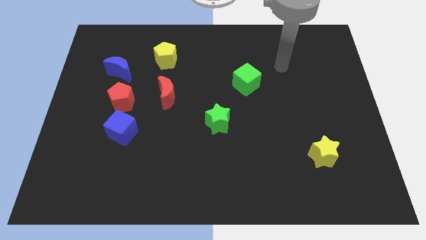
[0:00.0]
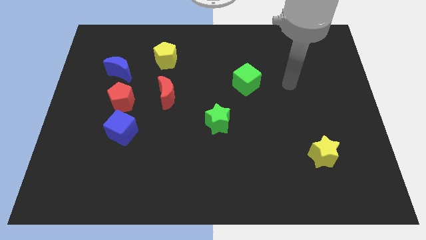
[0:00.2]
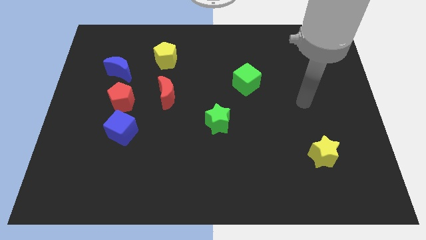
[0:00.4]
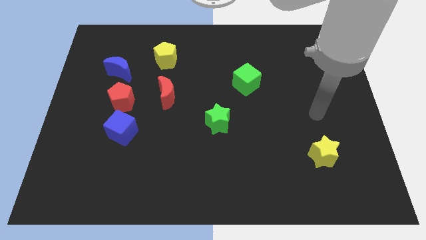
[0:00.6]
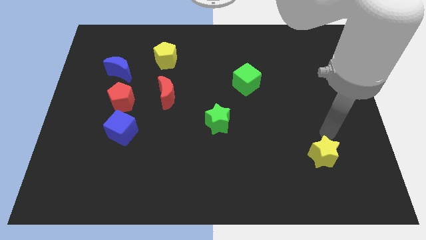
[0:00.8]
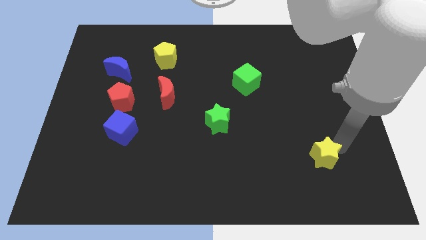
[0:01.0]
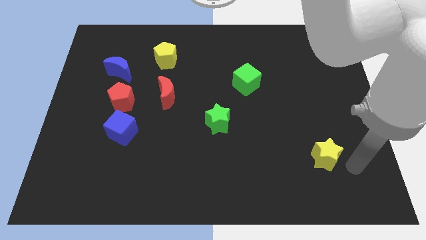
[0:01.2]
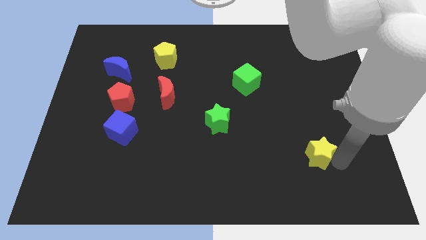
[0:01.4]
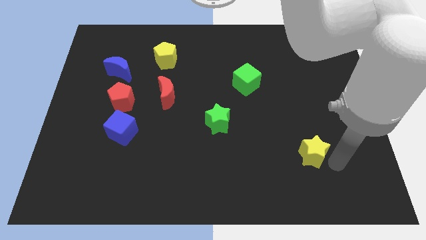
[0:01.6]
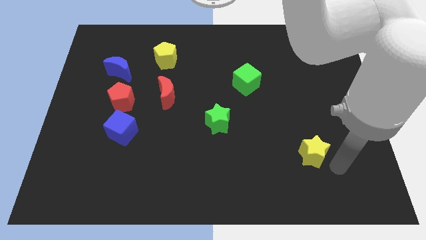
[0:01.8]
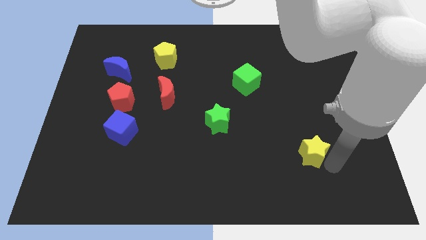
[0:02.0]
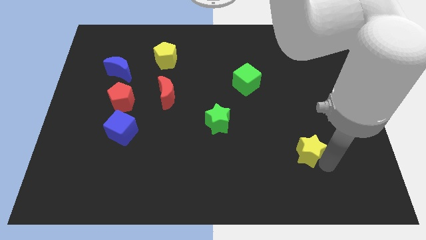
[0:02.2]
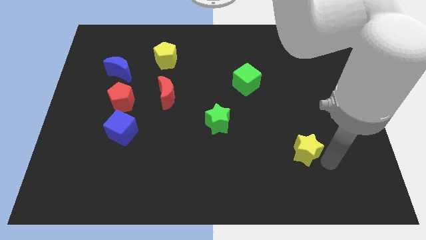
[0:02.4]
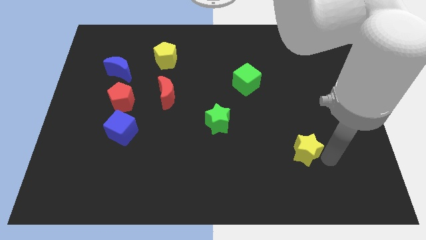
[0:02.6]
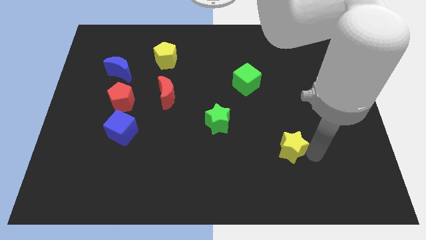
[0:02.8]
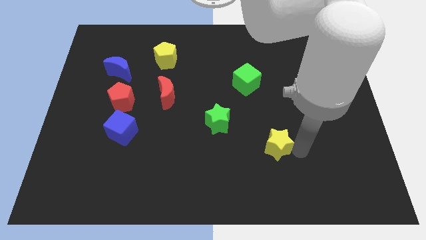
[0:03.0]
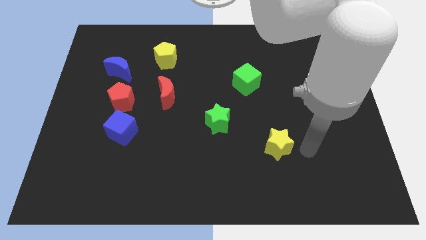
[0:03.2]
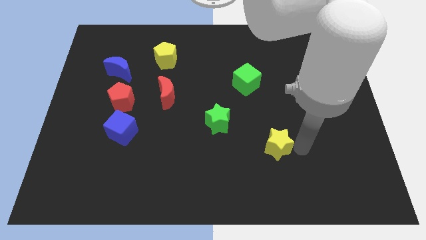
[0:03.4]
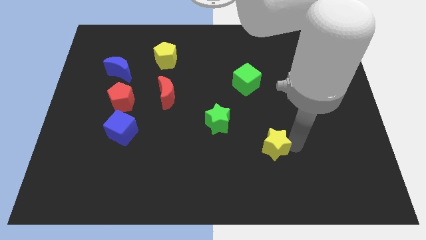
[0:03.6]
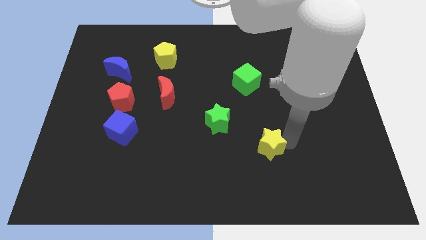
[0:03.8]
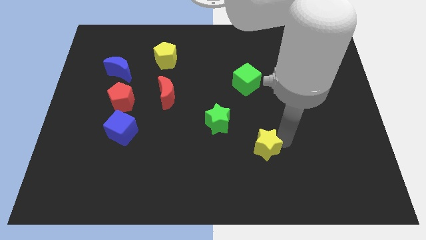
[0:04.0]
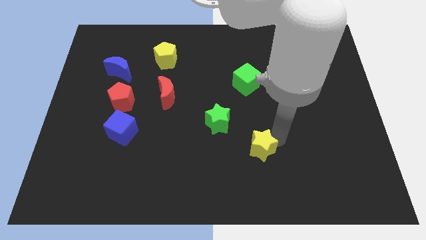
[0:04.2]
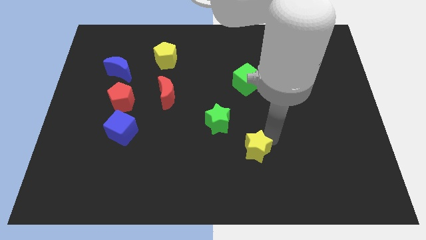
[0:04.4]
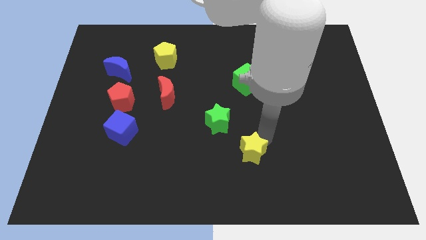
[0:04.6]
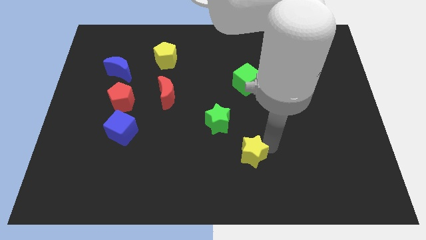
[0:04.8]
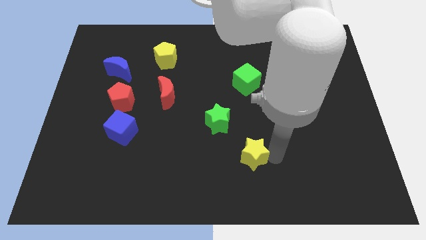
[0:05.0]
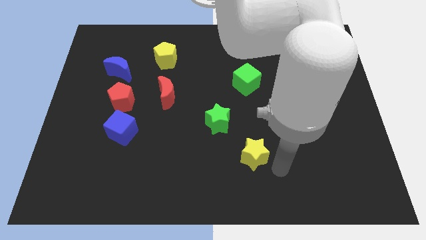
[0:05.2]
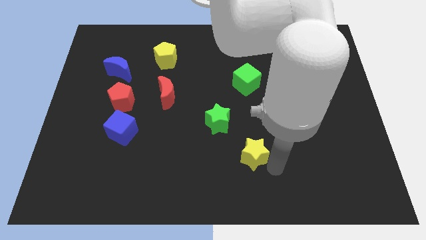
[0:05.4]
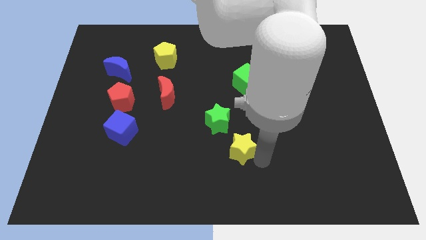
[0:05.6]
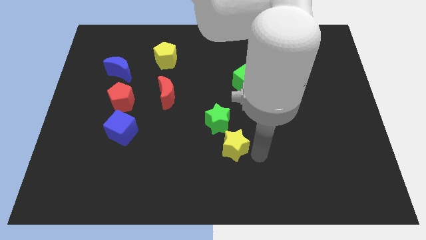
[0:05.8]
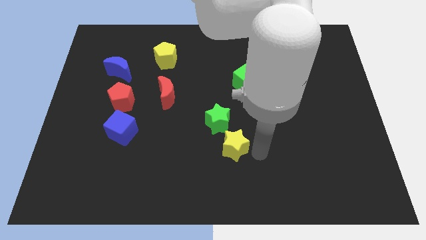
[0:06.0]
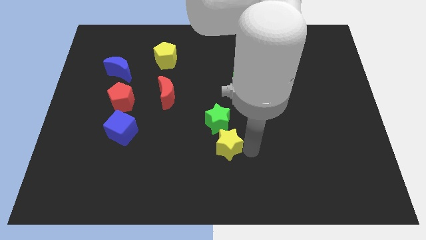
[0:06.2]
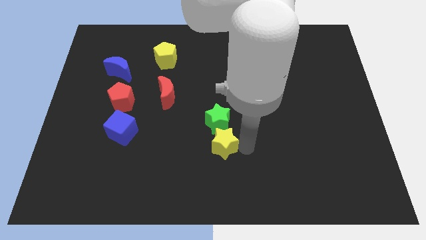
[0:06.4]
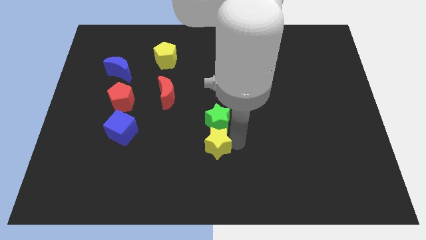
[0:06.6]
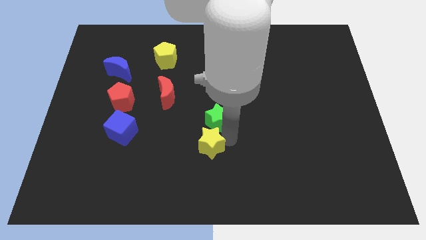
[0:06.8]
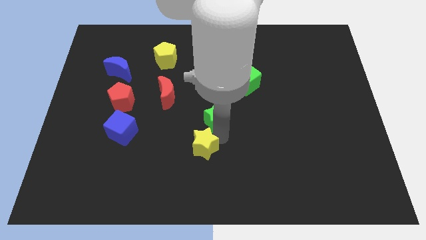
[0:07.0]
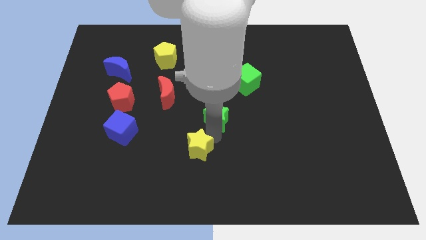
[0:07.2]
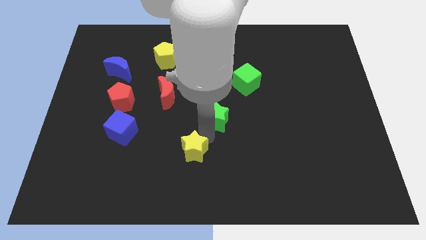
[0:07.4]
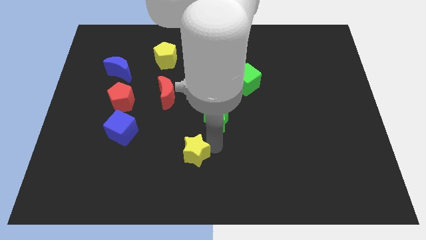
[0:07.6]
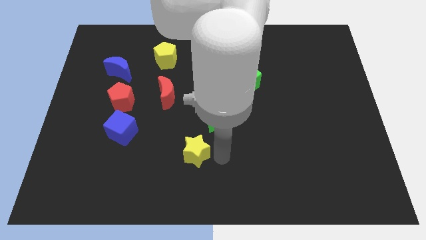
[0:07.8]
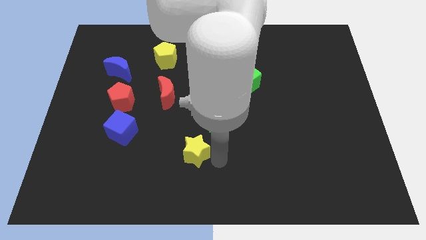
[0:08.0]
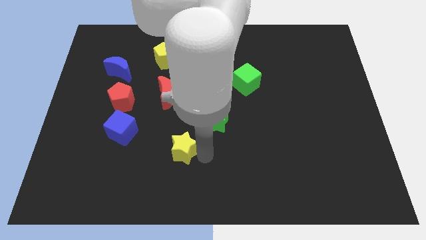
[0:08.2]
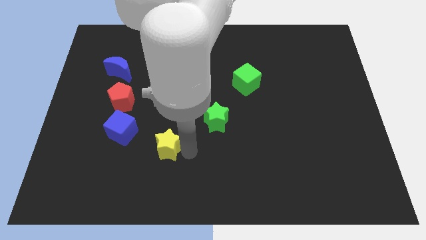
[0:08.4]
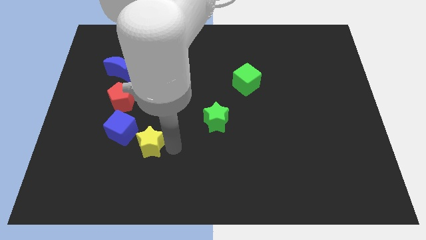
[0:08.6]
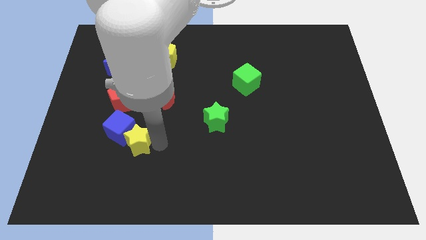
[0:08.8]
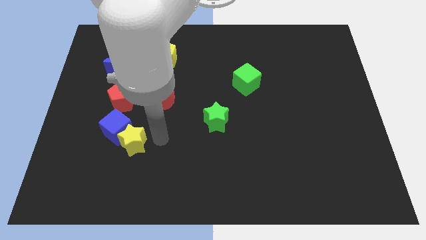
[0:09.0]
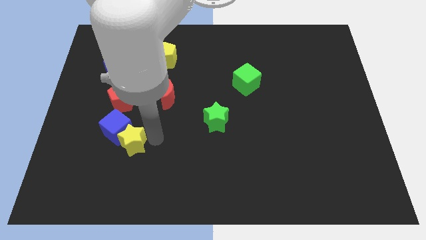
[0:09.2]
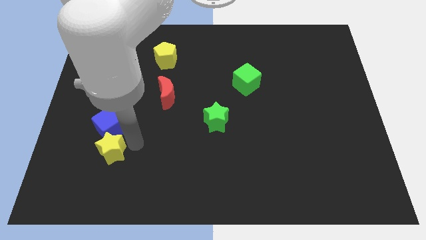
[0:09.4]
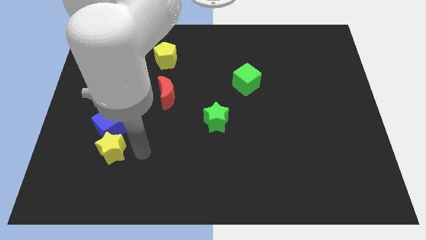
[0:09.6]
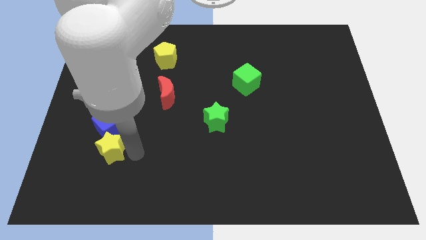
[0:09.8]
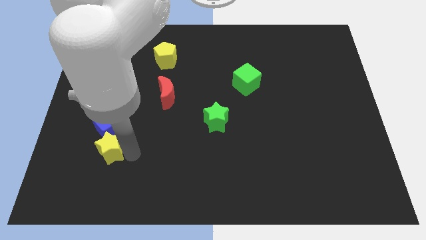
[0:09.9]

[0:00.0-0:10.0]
slide the yellow star to the bottom left of the blue cube

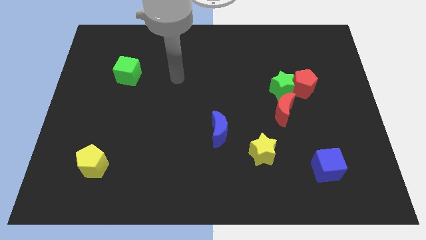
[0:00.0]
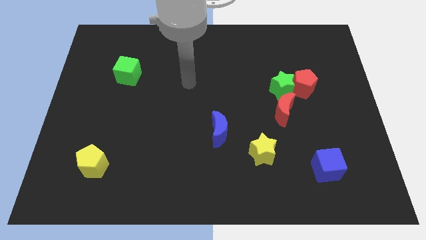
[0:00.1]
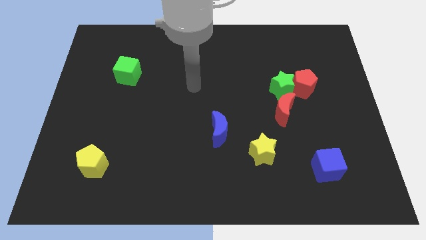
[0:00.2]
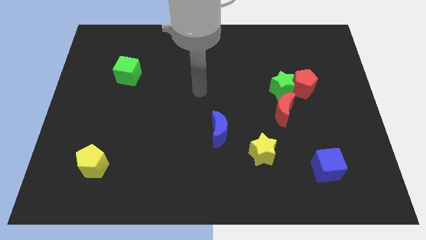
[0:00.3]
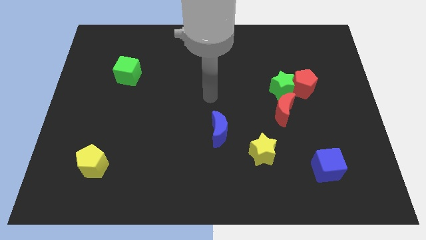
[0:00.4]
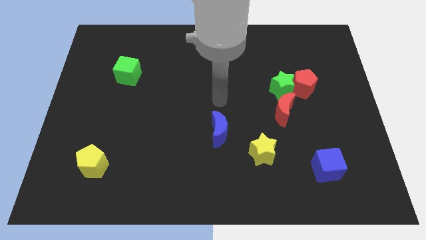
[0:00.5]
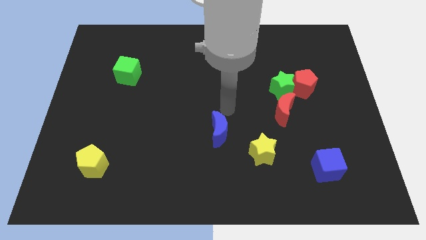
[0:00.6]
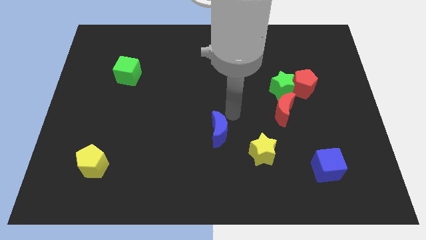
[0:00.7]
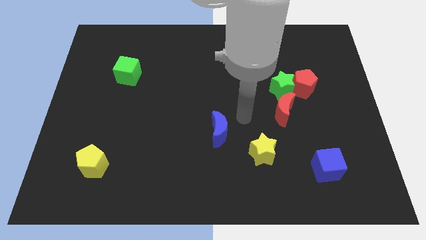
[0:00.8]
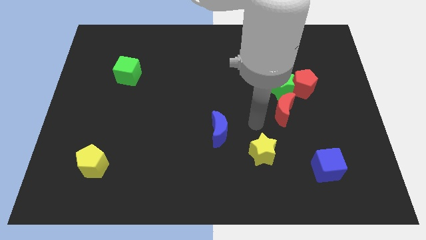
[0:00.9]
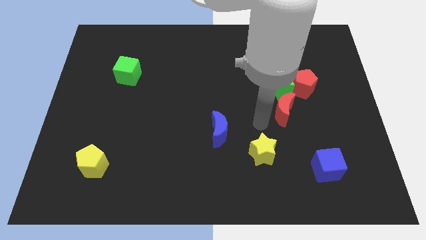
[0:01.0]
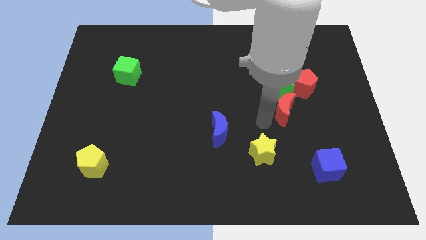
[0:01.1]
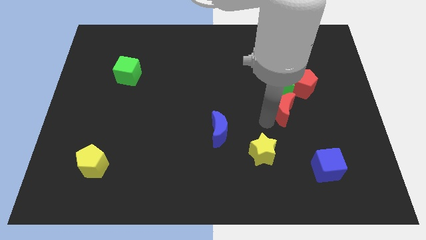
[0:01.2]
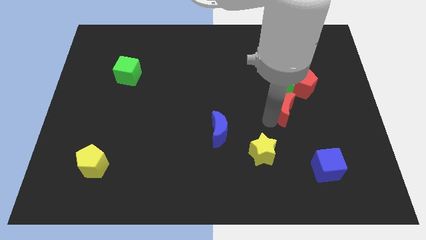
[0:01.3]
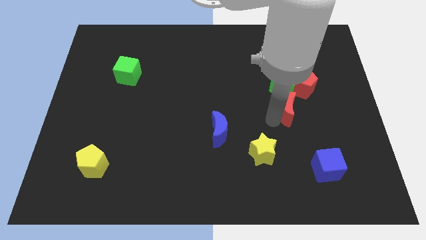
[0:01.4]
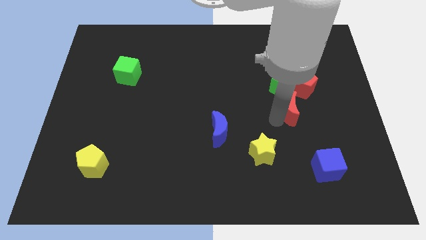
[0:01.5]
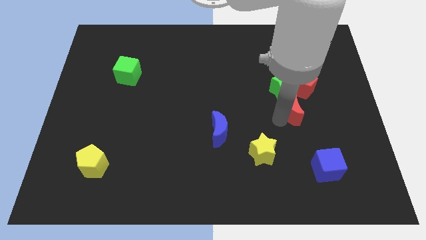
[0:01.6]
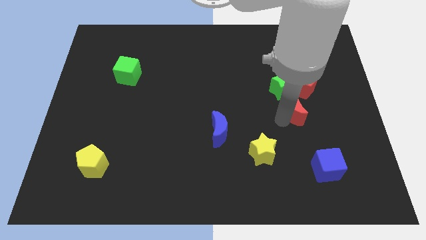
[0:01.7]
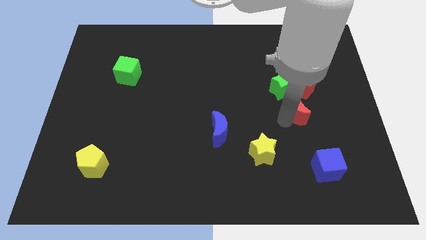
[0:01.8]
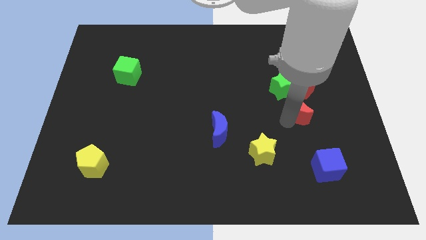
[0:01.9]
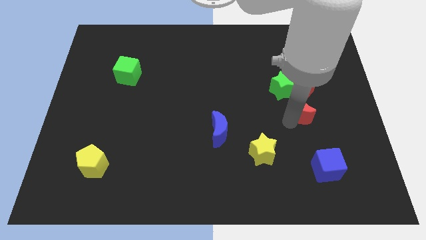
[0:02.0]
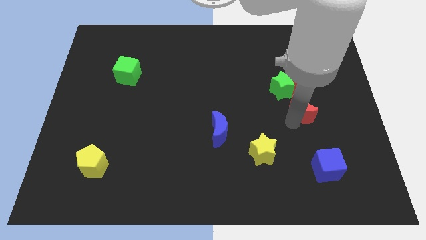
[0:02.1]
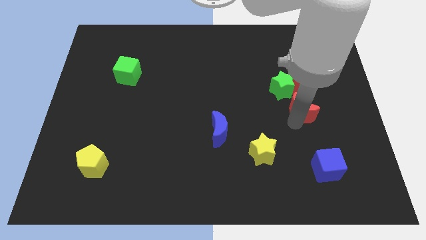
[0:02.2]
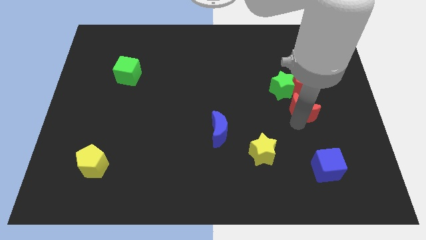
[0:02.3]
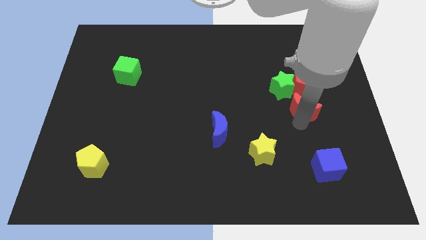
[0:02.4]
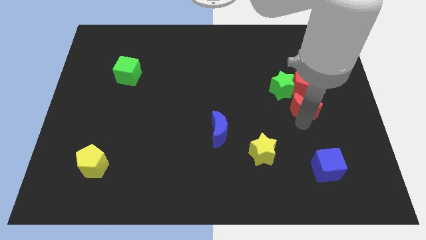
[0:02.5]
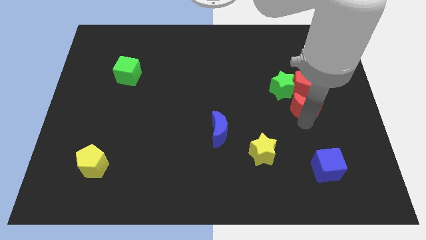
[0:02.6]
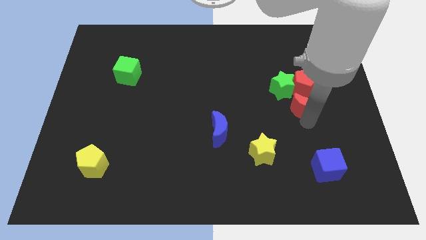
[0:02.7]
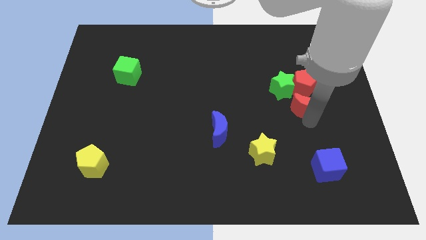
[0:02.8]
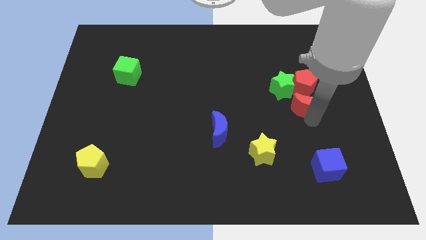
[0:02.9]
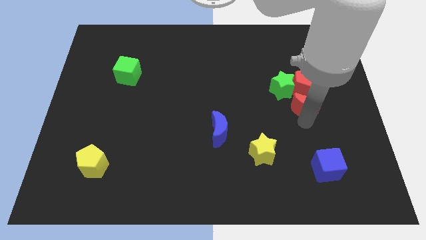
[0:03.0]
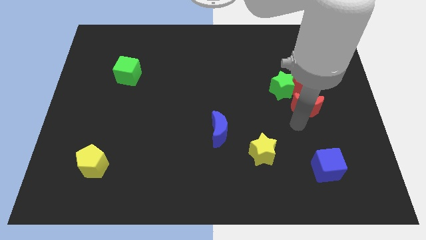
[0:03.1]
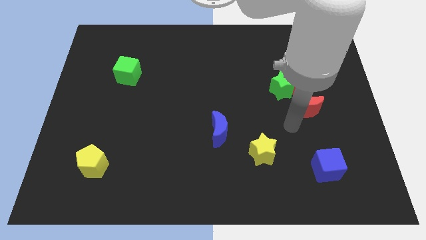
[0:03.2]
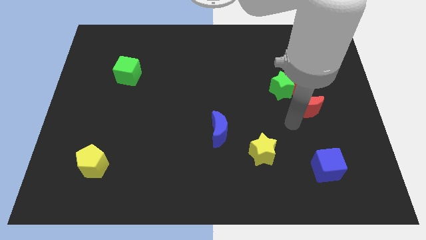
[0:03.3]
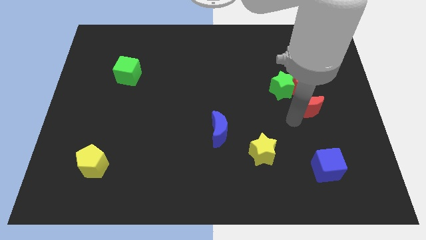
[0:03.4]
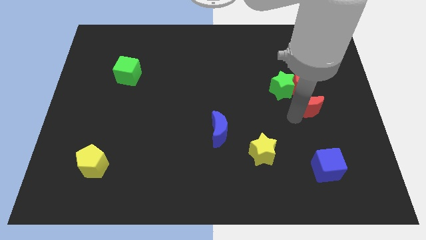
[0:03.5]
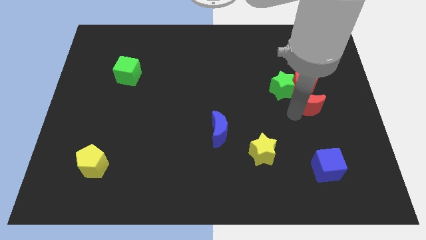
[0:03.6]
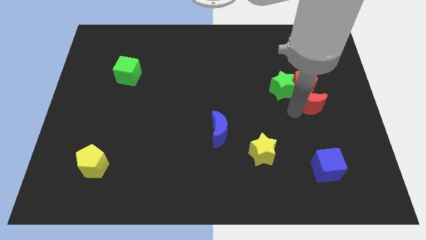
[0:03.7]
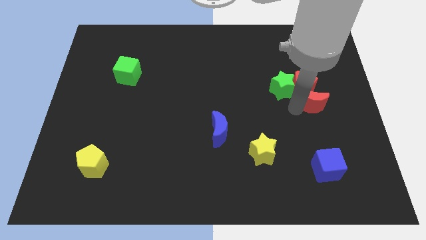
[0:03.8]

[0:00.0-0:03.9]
put the red moon right of the green star
